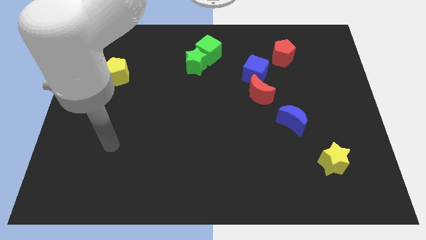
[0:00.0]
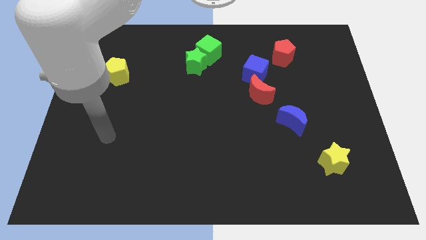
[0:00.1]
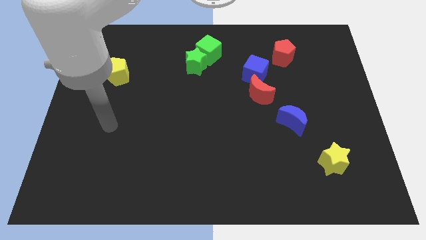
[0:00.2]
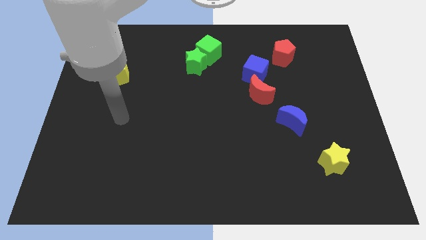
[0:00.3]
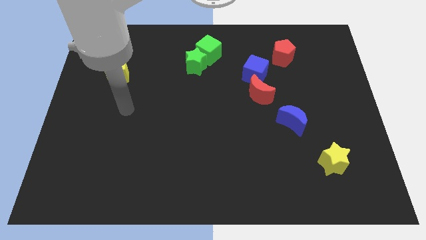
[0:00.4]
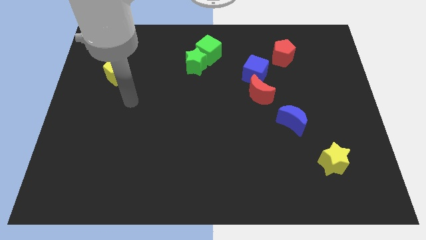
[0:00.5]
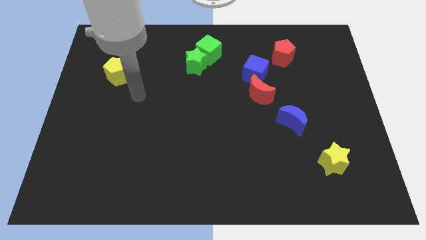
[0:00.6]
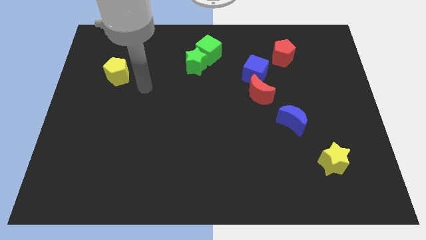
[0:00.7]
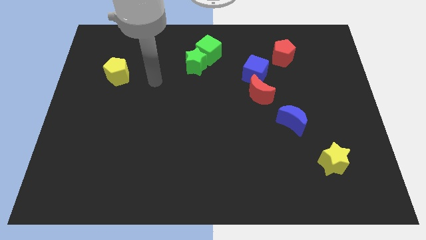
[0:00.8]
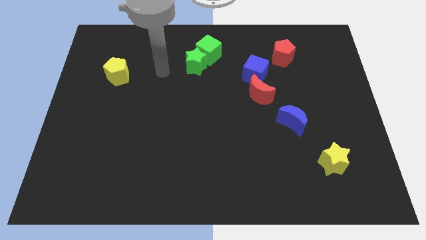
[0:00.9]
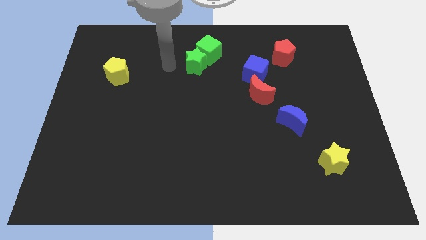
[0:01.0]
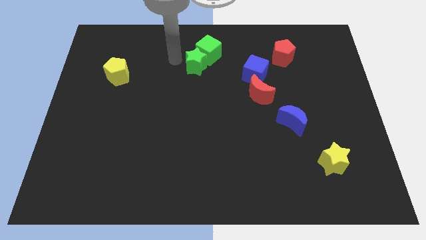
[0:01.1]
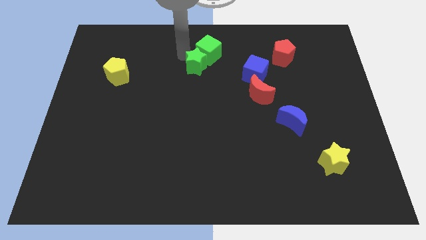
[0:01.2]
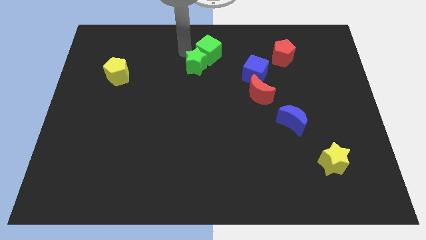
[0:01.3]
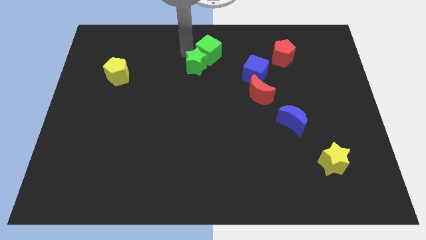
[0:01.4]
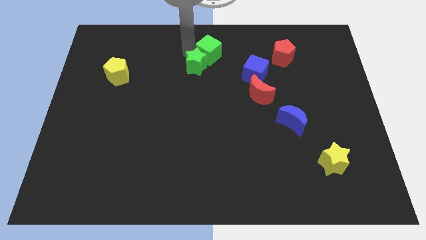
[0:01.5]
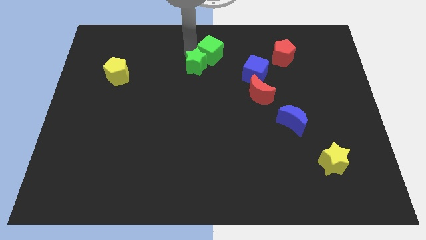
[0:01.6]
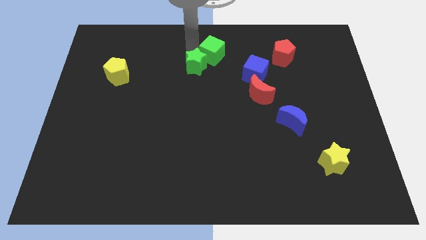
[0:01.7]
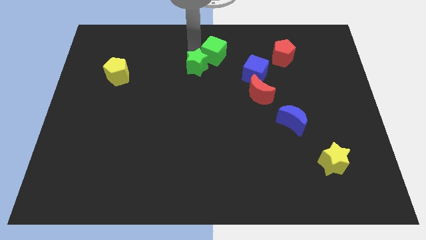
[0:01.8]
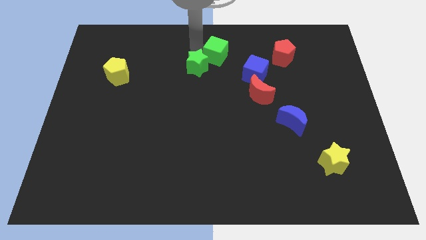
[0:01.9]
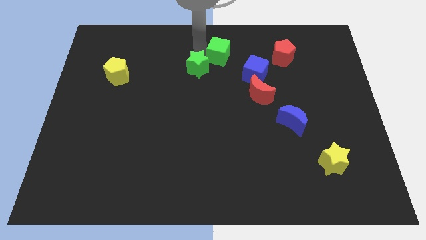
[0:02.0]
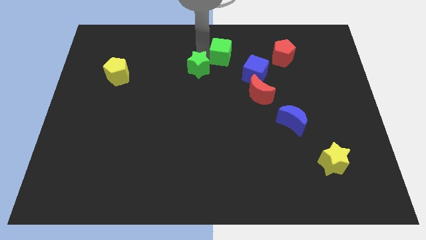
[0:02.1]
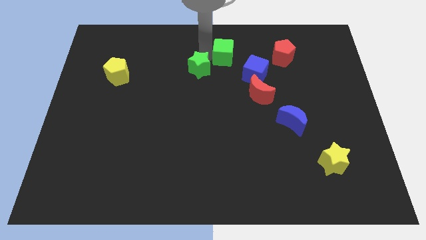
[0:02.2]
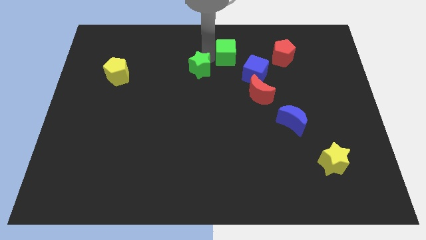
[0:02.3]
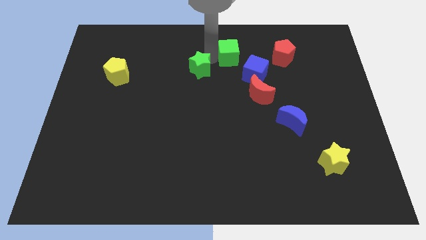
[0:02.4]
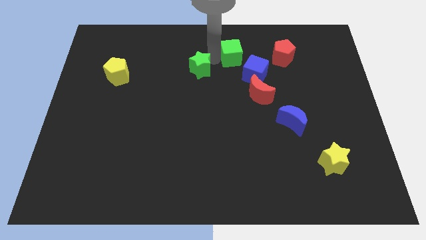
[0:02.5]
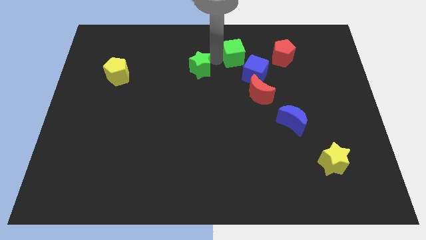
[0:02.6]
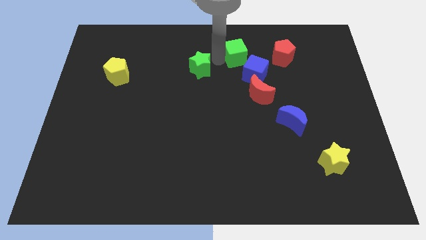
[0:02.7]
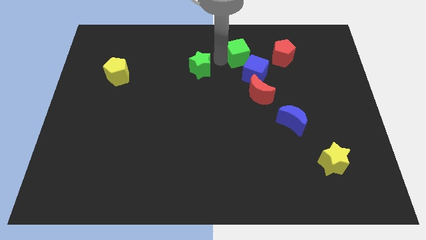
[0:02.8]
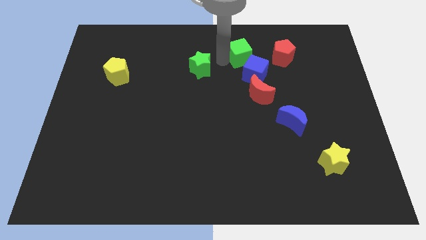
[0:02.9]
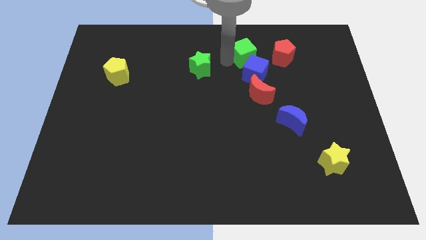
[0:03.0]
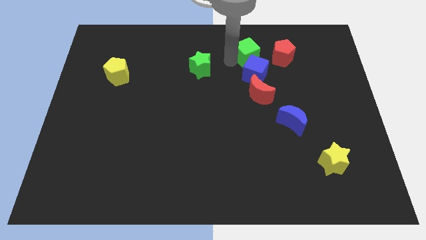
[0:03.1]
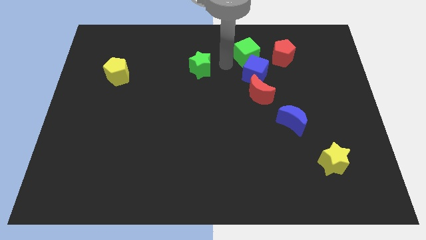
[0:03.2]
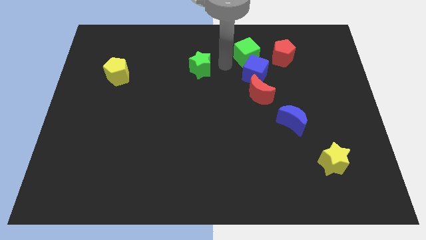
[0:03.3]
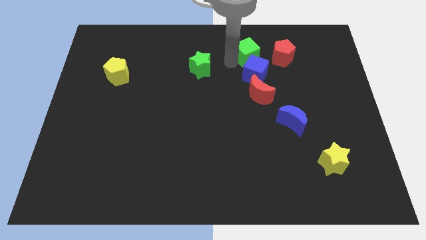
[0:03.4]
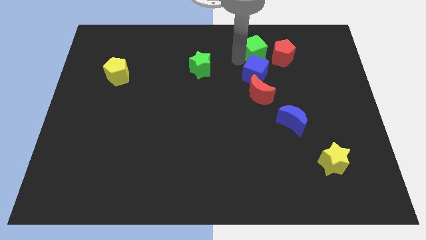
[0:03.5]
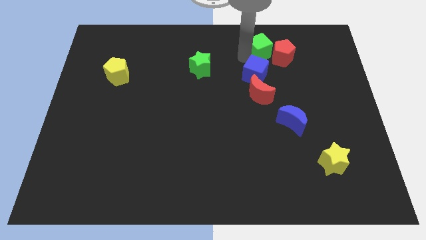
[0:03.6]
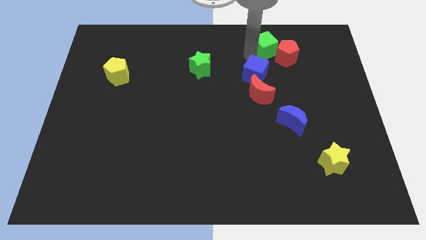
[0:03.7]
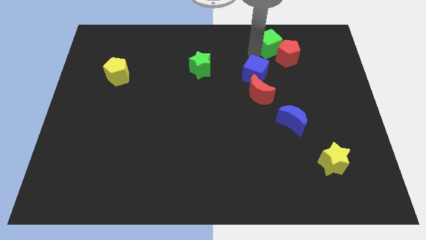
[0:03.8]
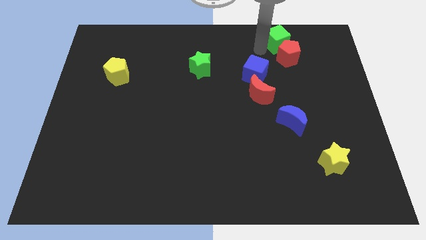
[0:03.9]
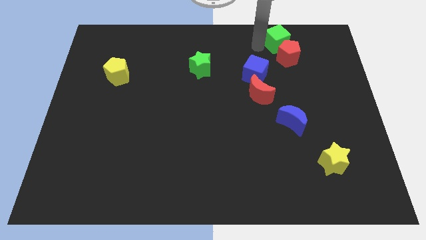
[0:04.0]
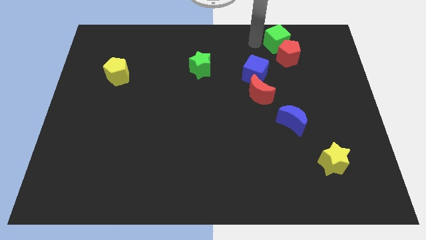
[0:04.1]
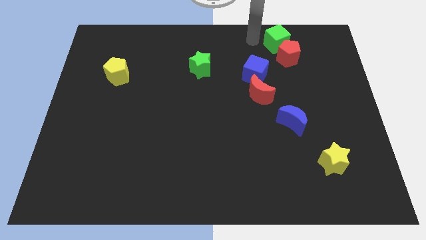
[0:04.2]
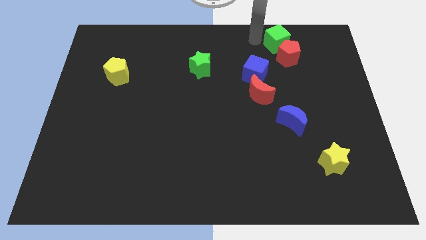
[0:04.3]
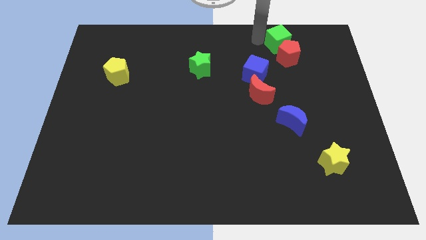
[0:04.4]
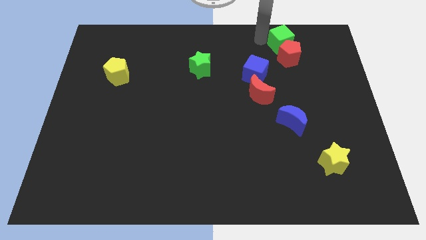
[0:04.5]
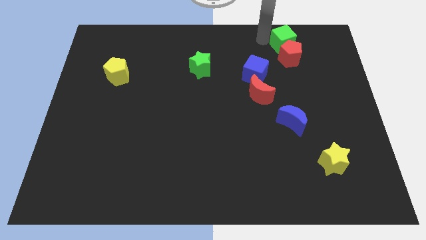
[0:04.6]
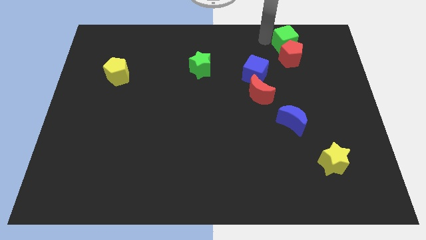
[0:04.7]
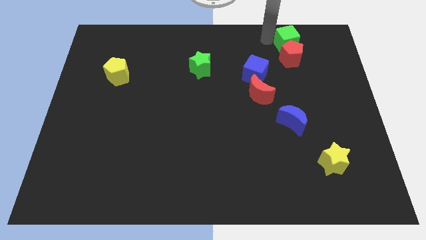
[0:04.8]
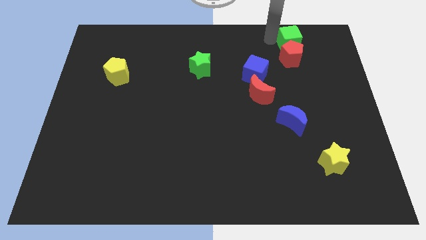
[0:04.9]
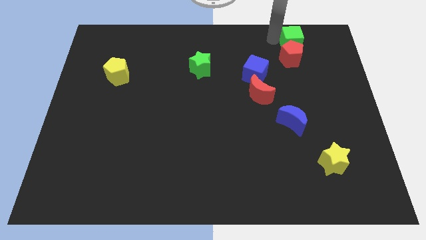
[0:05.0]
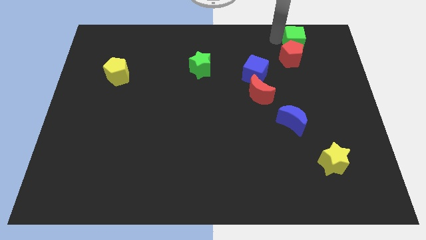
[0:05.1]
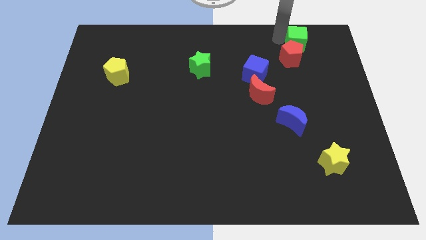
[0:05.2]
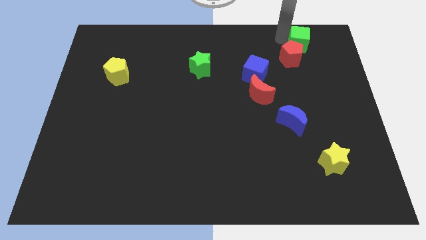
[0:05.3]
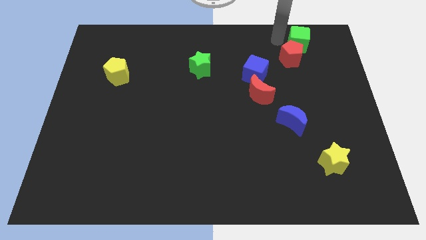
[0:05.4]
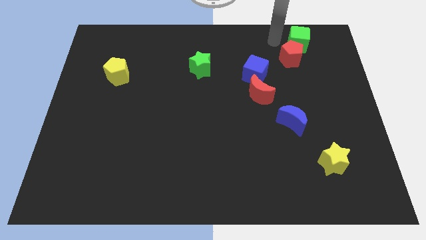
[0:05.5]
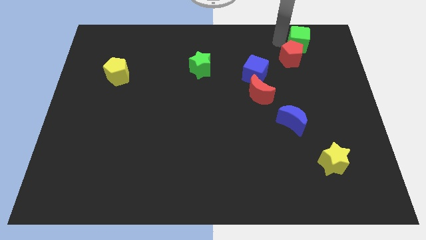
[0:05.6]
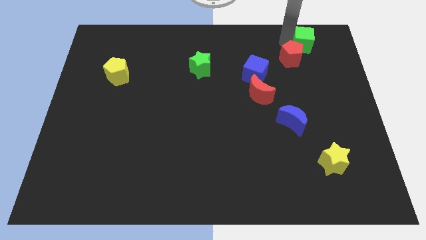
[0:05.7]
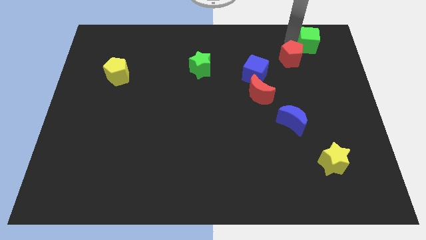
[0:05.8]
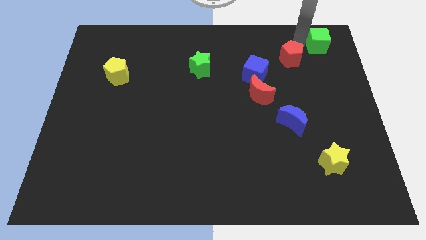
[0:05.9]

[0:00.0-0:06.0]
move the green cube to the top right

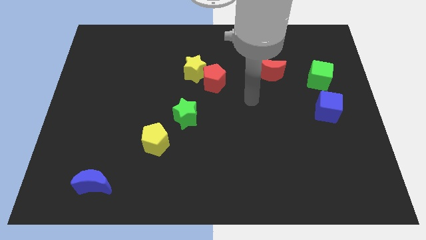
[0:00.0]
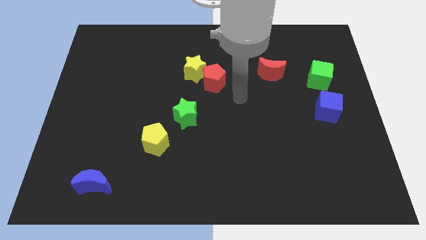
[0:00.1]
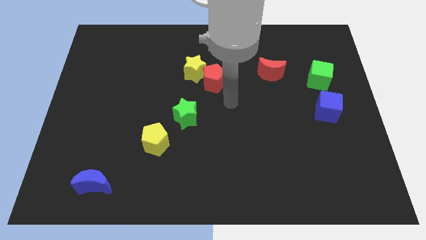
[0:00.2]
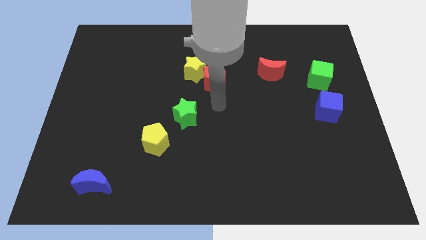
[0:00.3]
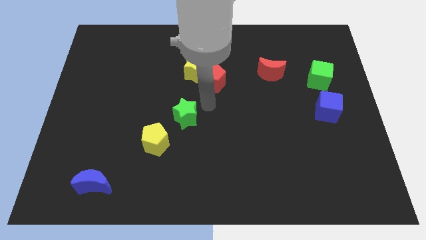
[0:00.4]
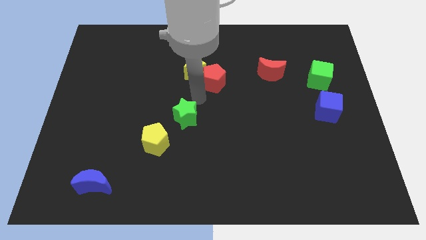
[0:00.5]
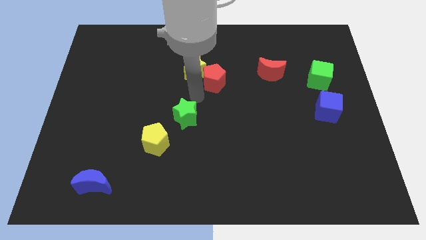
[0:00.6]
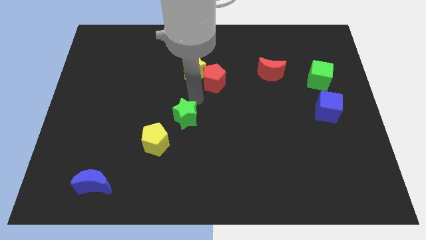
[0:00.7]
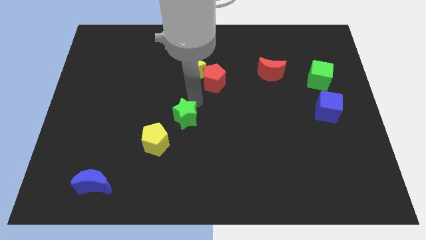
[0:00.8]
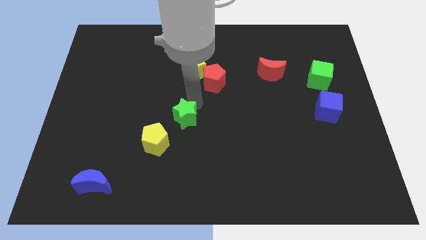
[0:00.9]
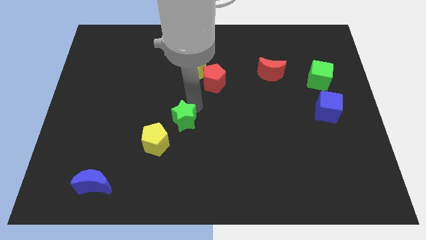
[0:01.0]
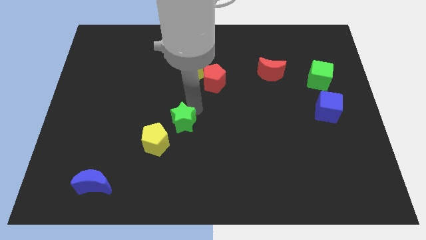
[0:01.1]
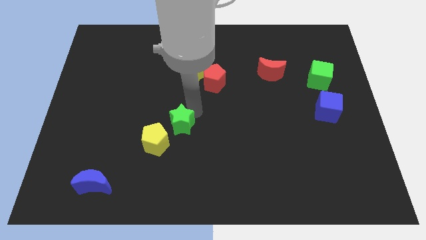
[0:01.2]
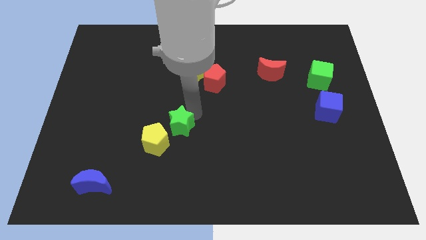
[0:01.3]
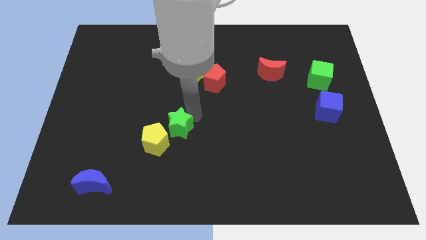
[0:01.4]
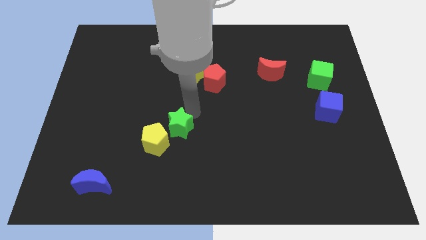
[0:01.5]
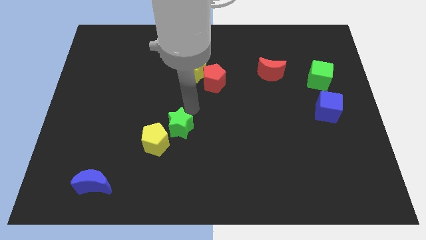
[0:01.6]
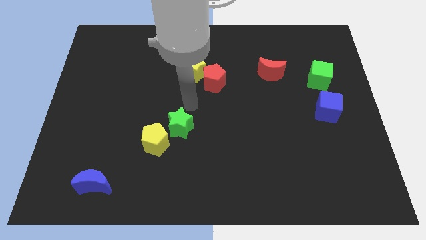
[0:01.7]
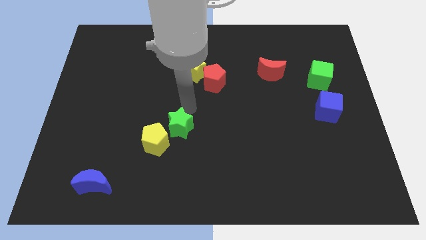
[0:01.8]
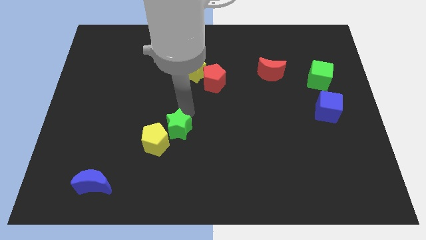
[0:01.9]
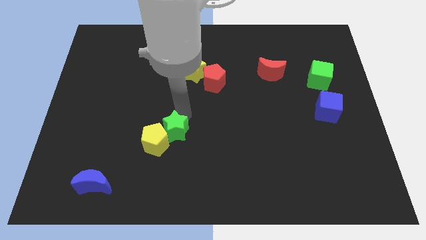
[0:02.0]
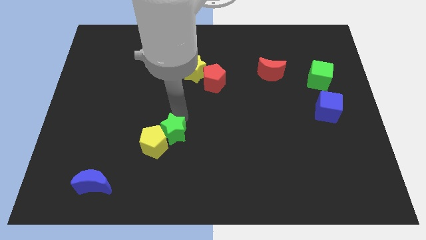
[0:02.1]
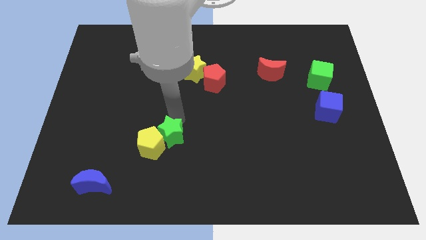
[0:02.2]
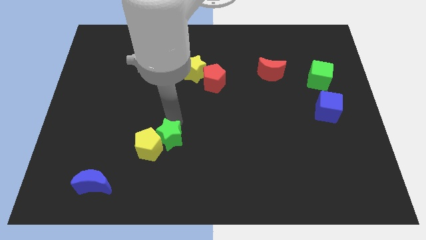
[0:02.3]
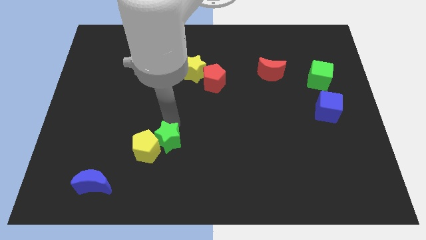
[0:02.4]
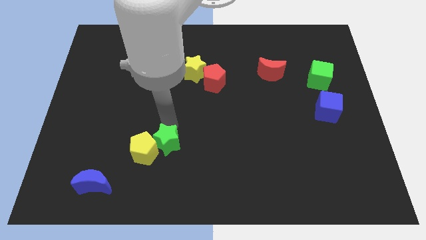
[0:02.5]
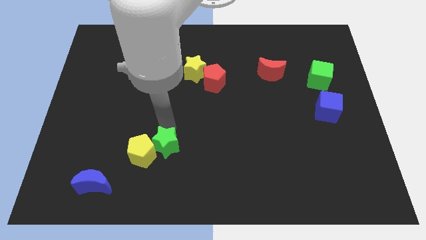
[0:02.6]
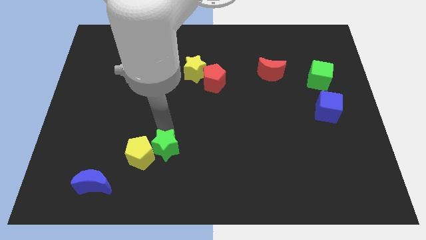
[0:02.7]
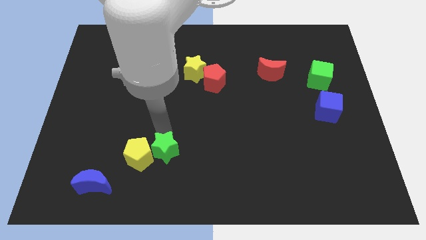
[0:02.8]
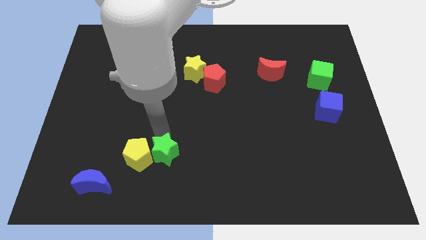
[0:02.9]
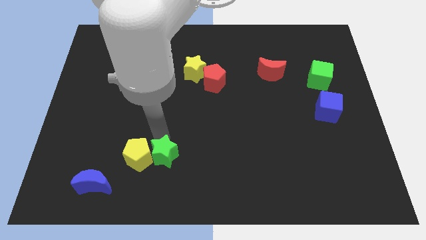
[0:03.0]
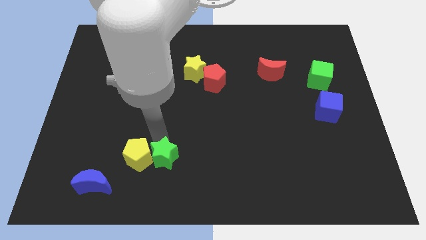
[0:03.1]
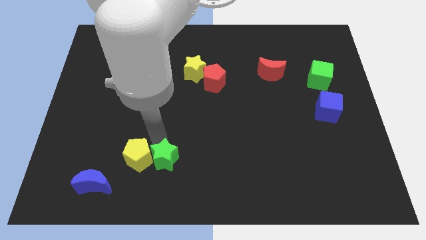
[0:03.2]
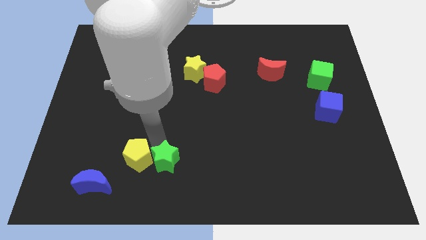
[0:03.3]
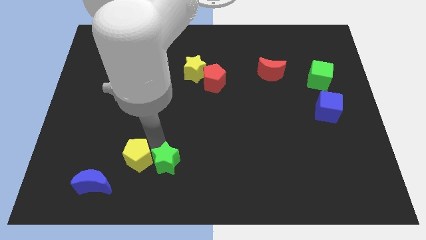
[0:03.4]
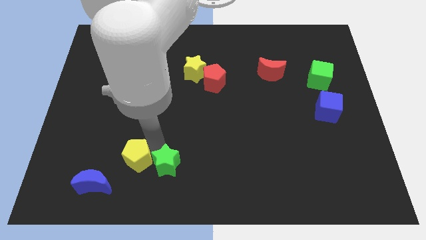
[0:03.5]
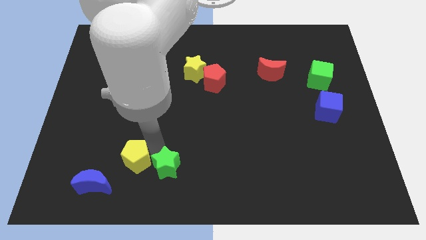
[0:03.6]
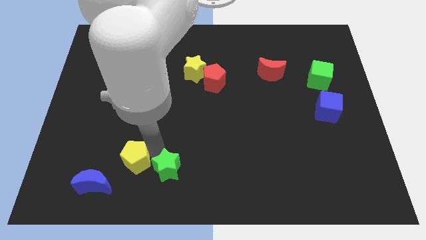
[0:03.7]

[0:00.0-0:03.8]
push the green star to the bottom side
